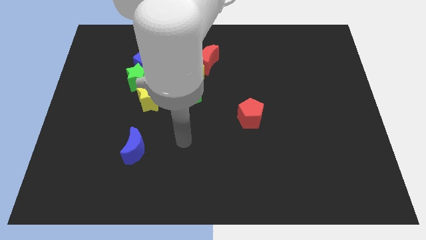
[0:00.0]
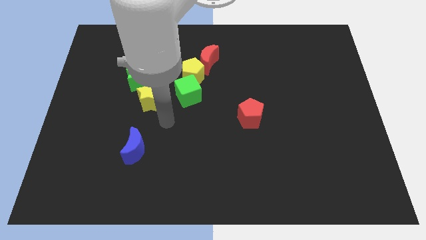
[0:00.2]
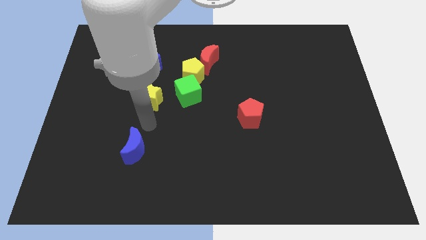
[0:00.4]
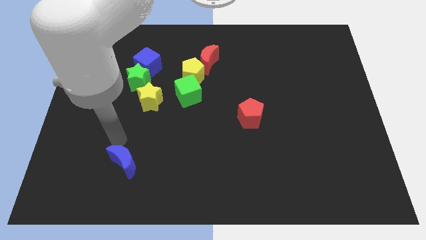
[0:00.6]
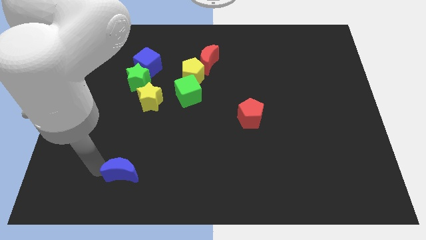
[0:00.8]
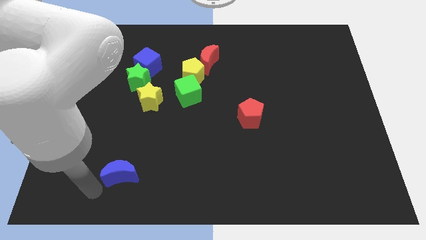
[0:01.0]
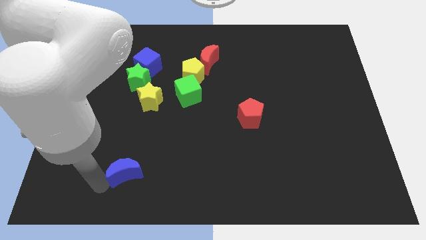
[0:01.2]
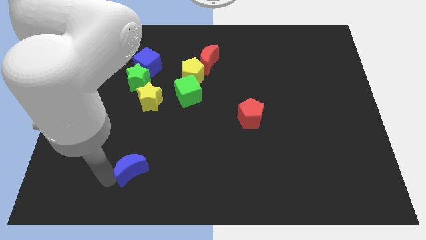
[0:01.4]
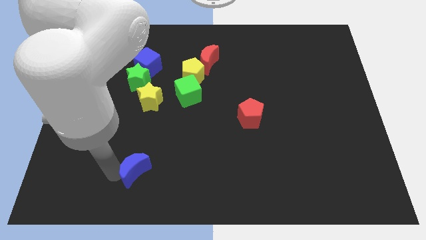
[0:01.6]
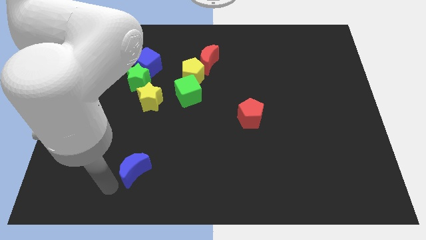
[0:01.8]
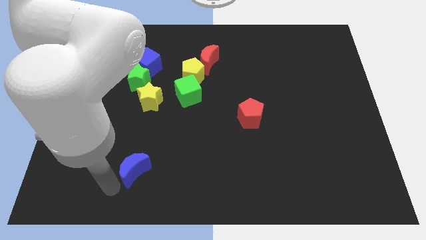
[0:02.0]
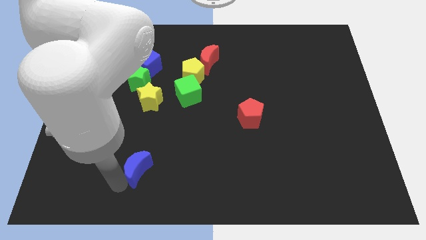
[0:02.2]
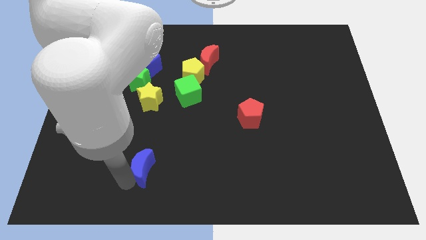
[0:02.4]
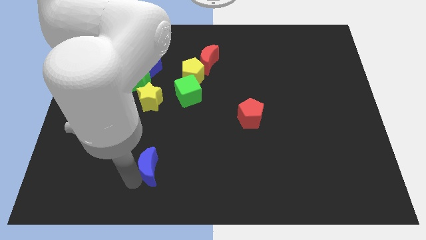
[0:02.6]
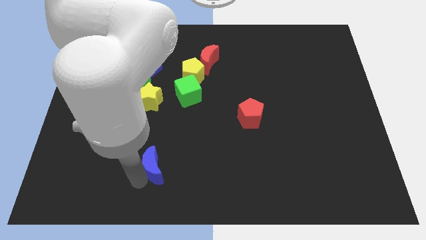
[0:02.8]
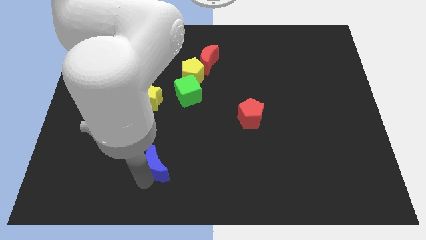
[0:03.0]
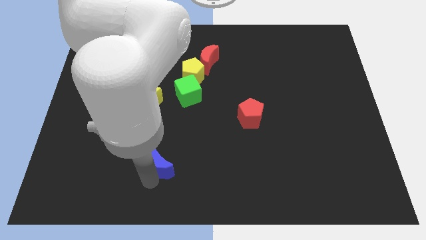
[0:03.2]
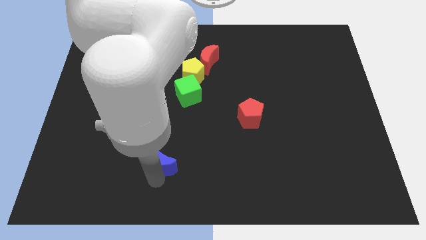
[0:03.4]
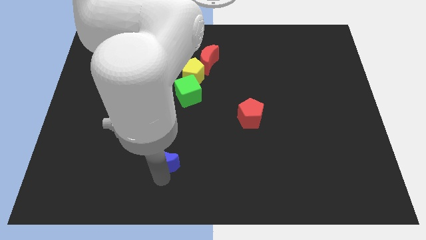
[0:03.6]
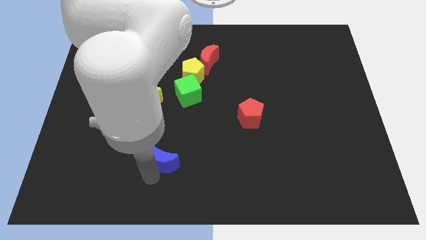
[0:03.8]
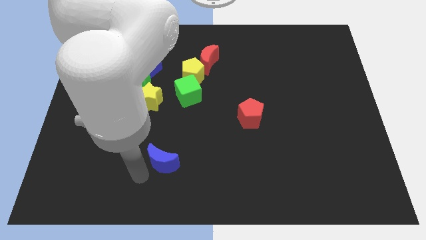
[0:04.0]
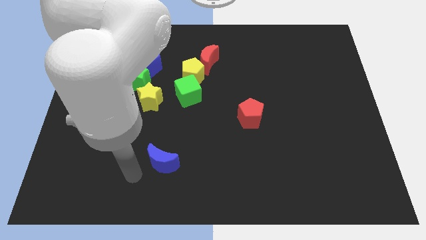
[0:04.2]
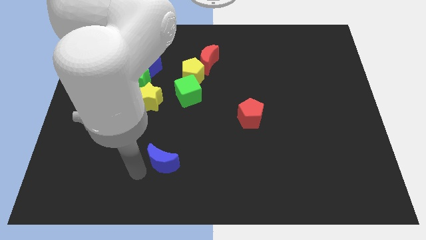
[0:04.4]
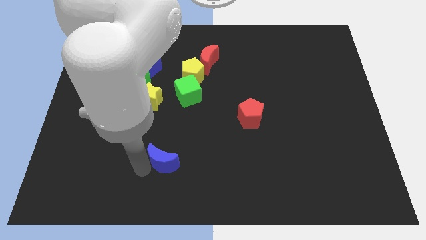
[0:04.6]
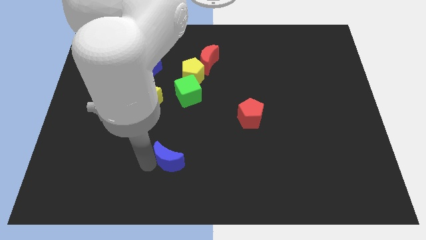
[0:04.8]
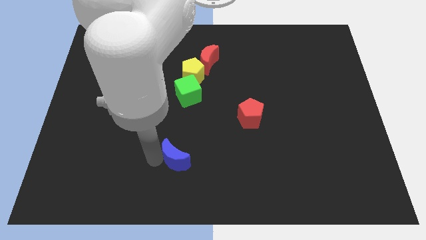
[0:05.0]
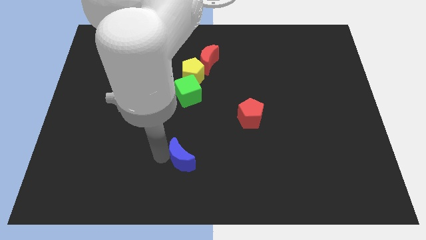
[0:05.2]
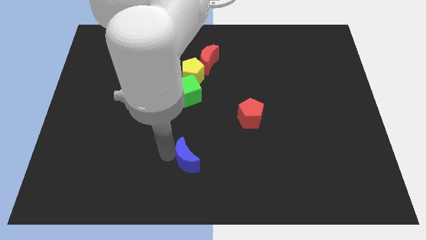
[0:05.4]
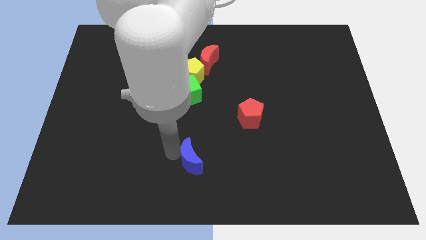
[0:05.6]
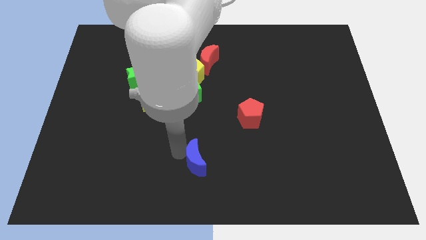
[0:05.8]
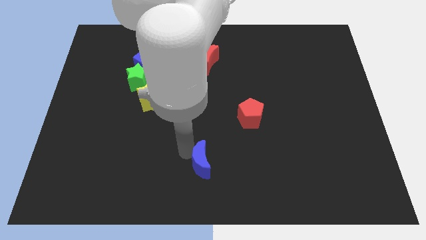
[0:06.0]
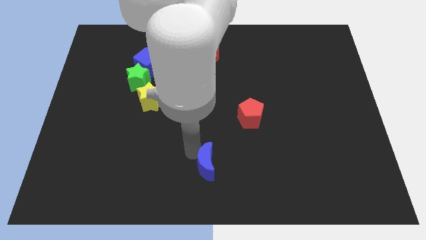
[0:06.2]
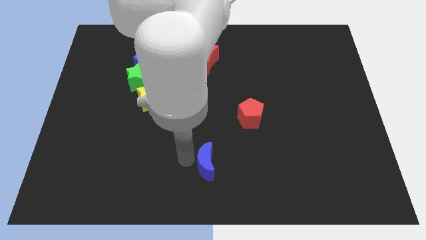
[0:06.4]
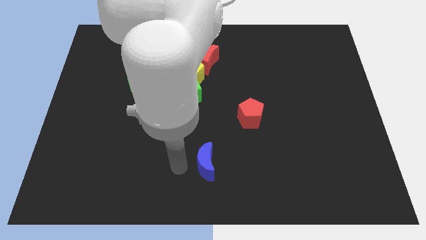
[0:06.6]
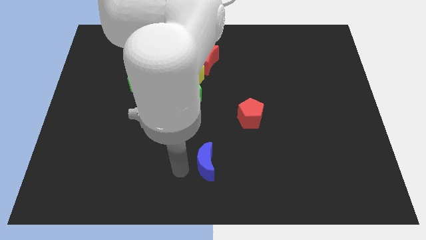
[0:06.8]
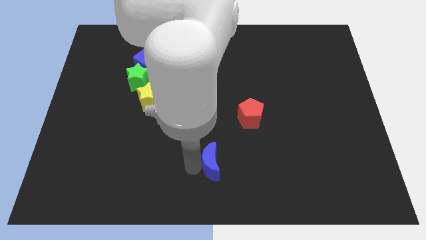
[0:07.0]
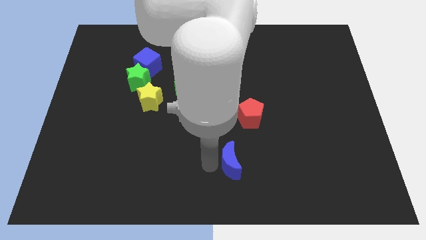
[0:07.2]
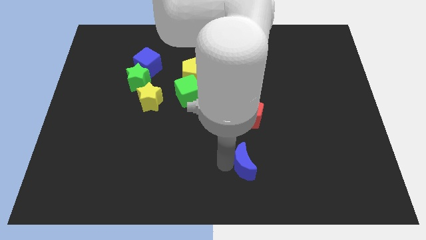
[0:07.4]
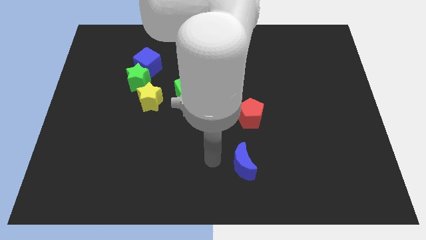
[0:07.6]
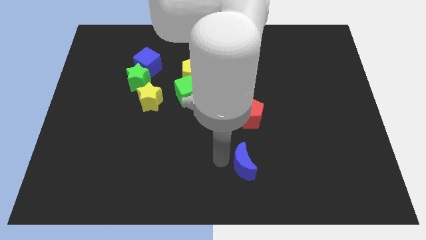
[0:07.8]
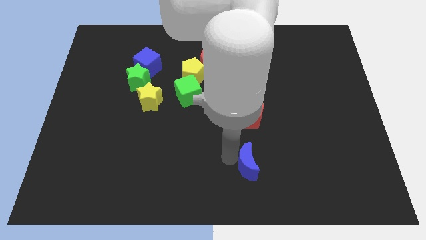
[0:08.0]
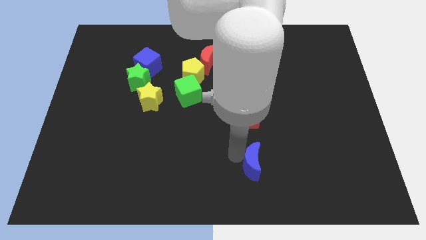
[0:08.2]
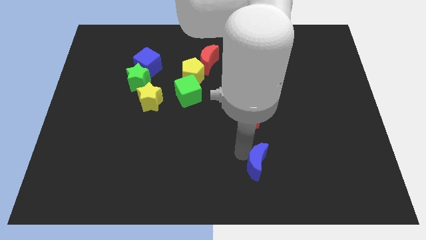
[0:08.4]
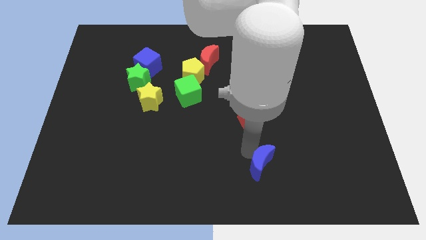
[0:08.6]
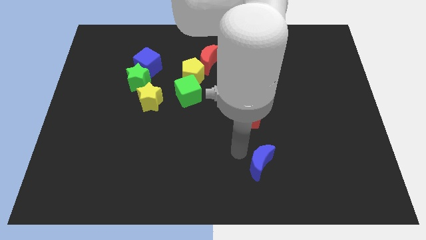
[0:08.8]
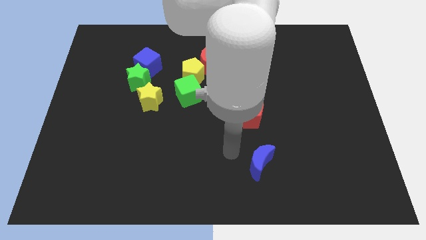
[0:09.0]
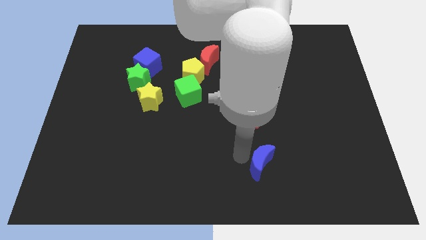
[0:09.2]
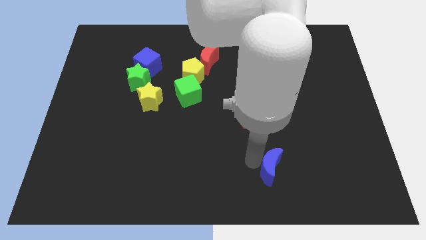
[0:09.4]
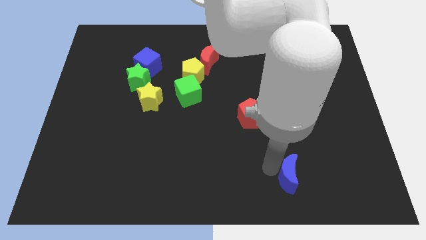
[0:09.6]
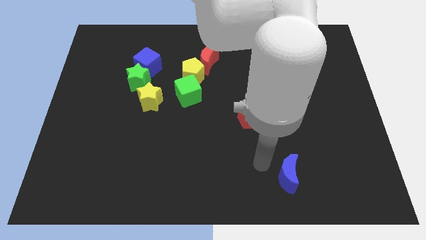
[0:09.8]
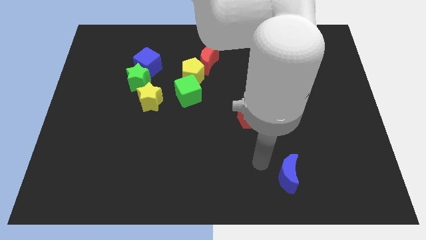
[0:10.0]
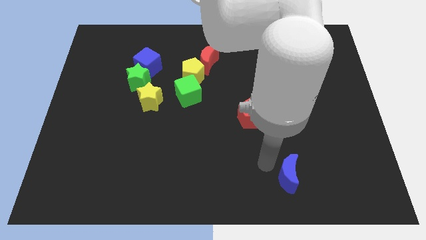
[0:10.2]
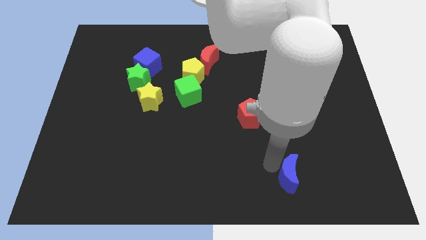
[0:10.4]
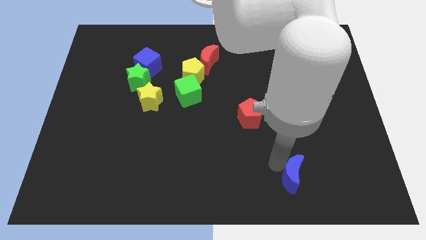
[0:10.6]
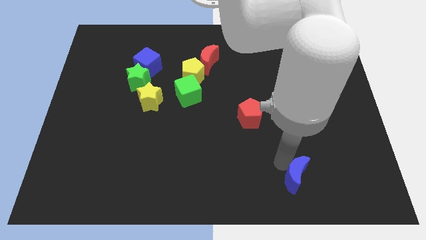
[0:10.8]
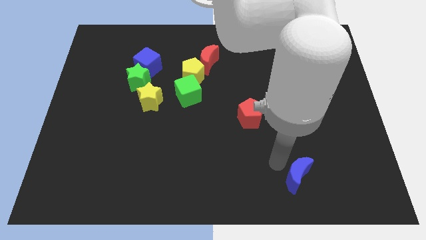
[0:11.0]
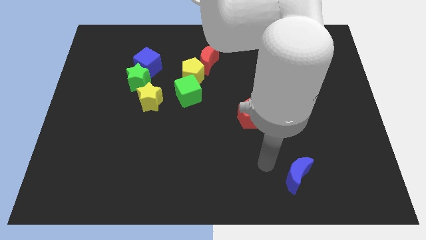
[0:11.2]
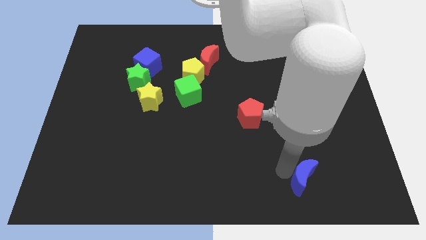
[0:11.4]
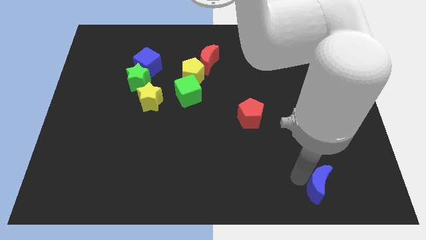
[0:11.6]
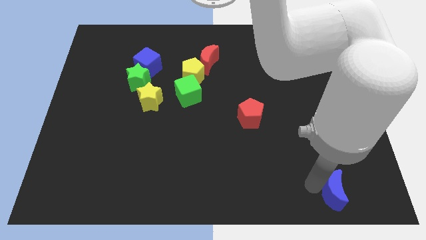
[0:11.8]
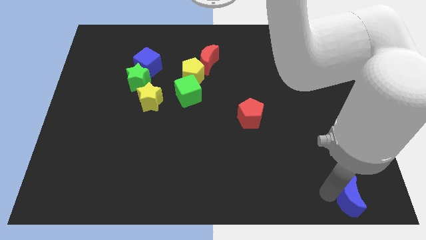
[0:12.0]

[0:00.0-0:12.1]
move the blue moon to the lower right corner
